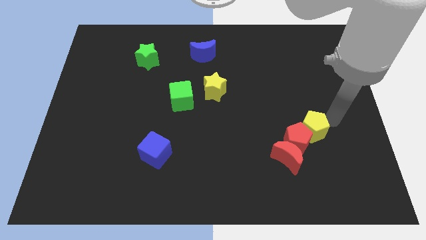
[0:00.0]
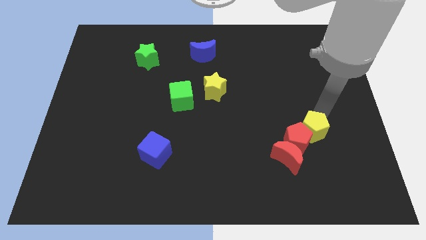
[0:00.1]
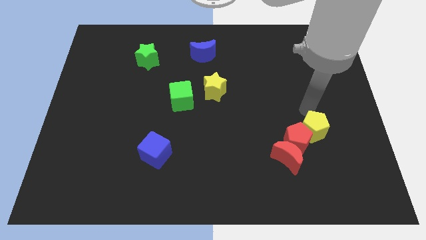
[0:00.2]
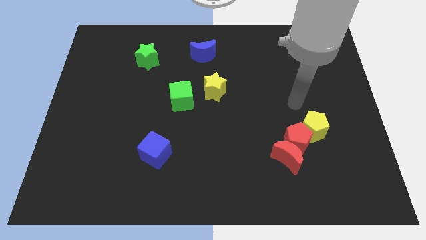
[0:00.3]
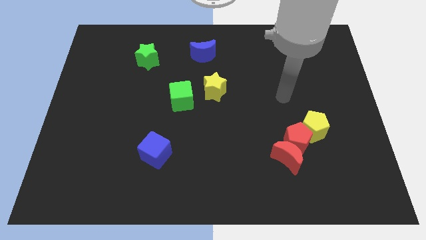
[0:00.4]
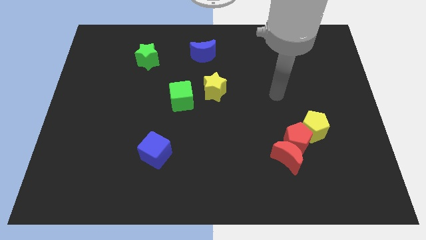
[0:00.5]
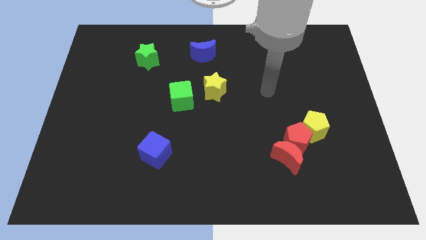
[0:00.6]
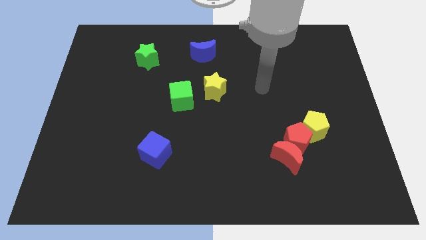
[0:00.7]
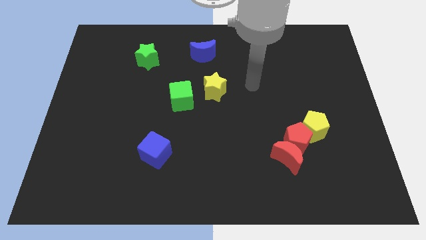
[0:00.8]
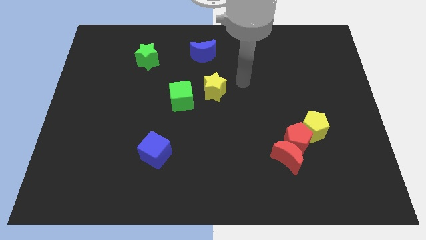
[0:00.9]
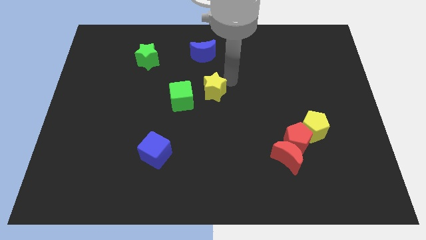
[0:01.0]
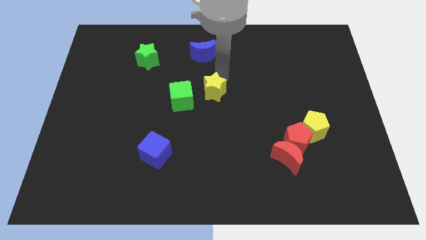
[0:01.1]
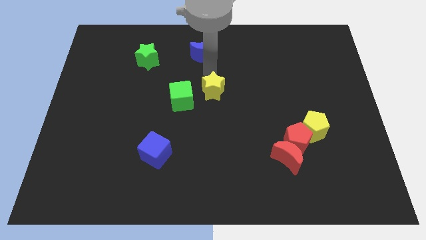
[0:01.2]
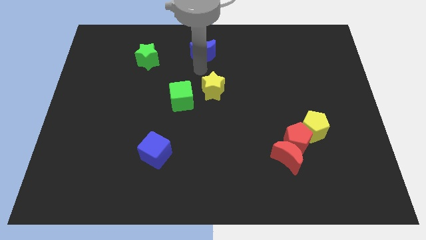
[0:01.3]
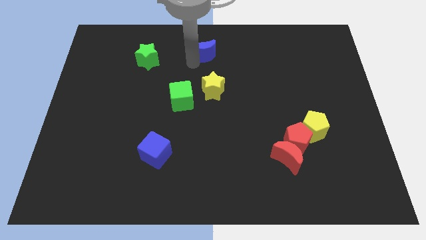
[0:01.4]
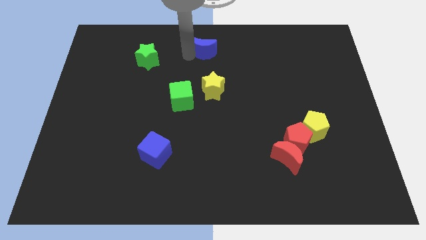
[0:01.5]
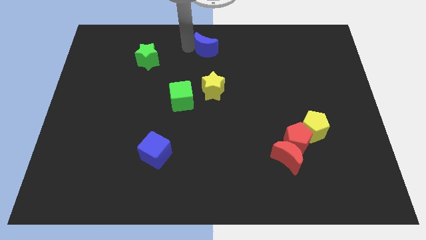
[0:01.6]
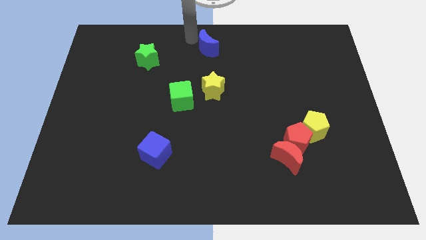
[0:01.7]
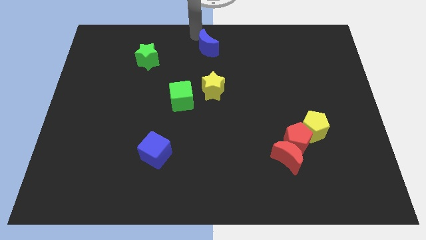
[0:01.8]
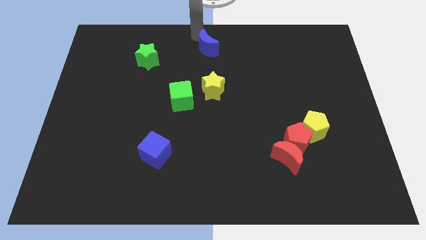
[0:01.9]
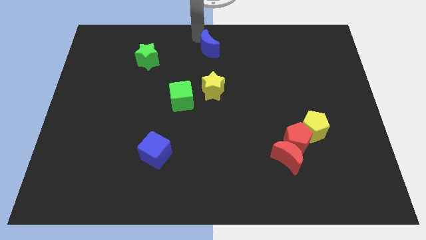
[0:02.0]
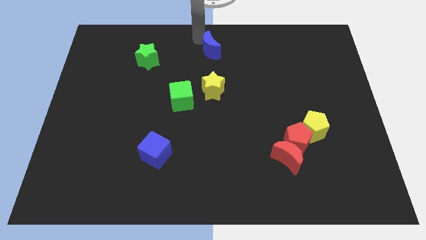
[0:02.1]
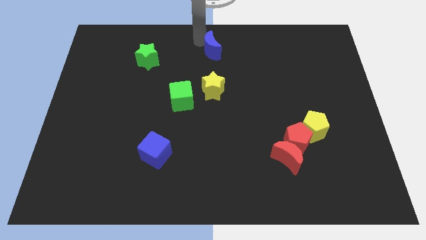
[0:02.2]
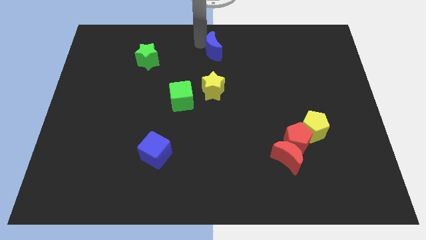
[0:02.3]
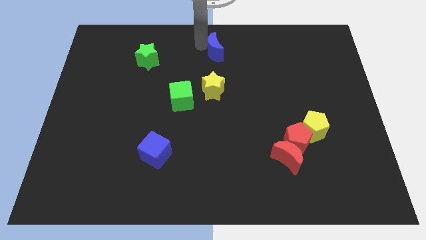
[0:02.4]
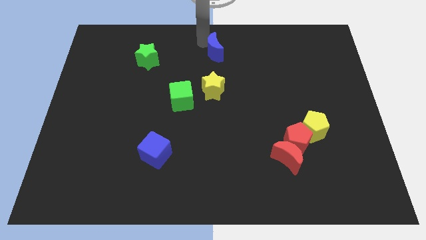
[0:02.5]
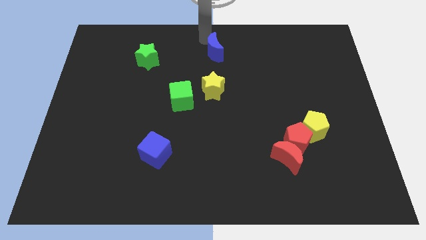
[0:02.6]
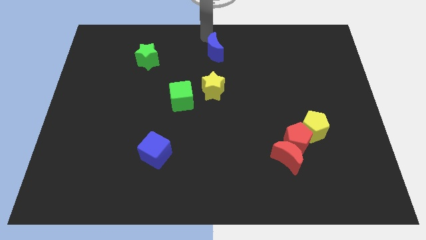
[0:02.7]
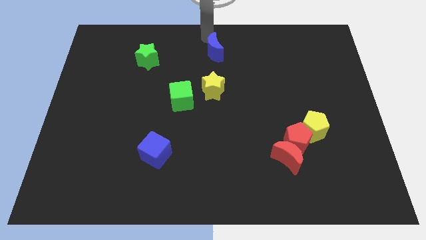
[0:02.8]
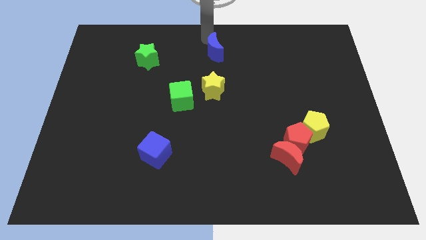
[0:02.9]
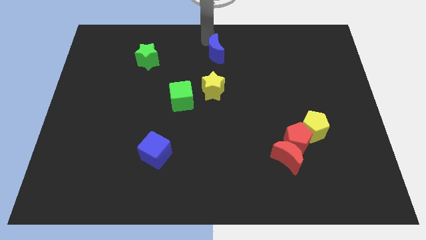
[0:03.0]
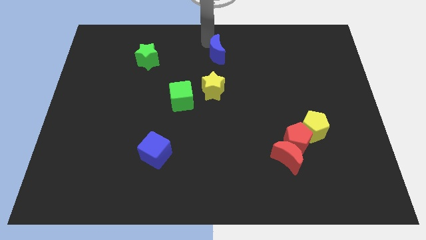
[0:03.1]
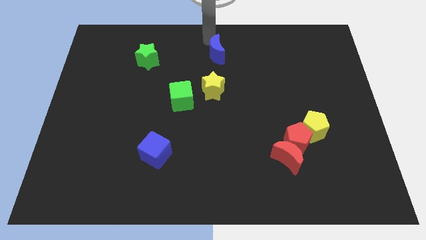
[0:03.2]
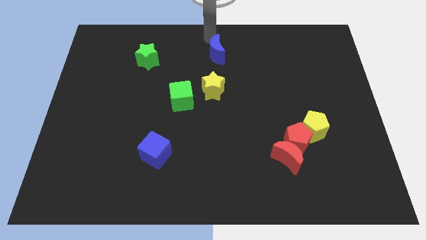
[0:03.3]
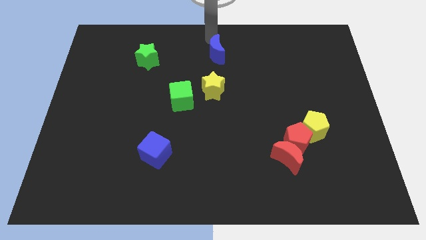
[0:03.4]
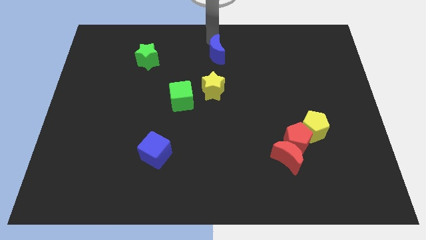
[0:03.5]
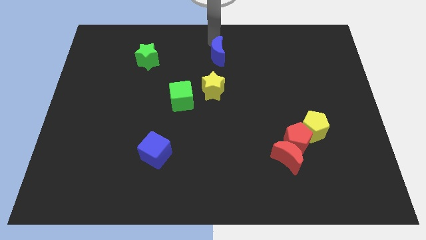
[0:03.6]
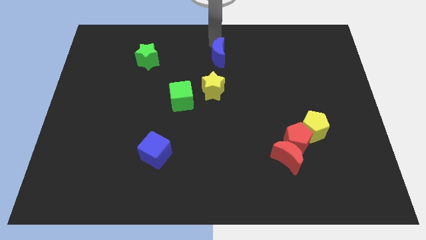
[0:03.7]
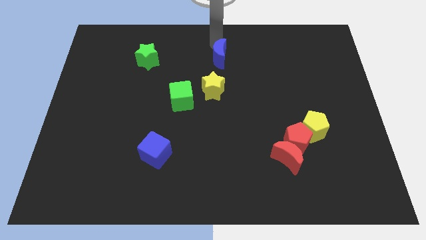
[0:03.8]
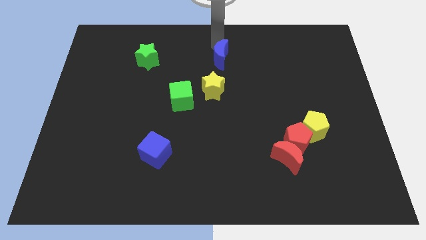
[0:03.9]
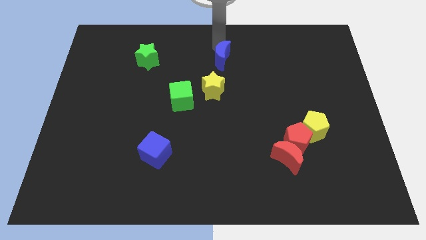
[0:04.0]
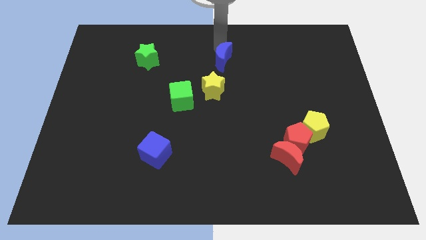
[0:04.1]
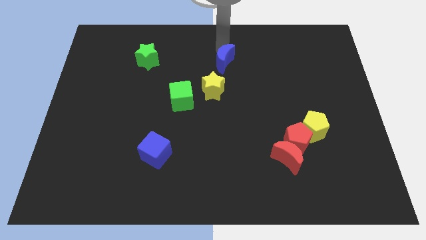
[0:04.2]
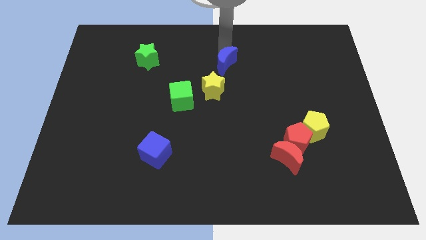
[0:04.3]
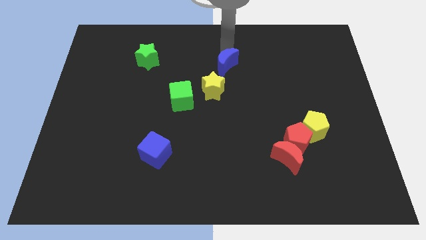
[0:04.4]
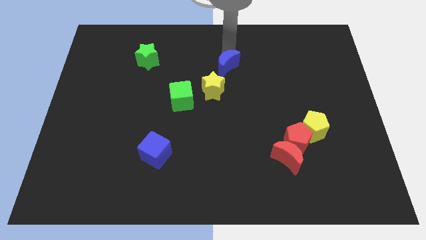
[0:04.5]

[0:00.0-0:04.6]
move the blue moon a little bit down and right diagonally

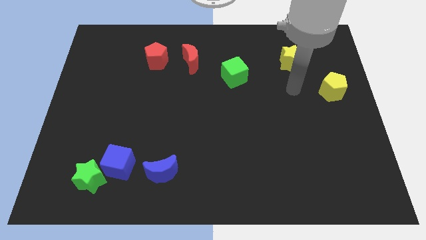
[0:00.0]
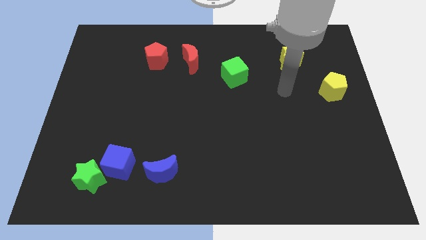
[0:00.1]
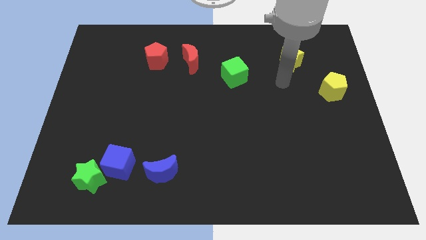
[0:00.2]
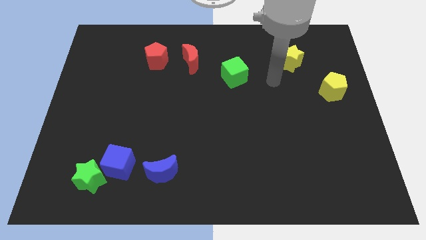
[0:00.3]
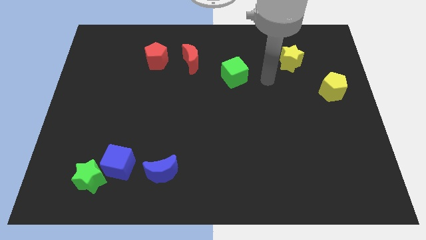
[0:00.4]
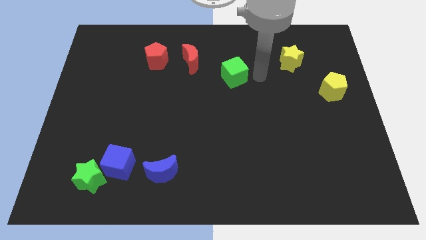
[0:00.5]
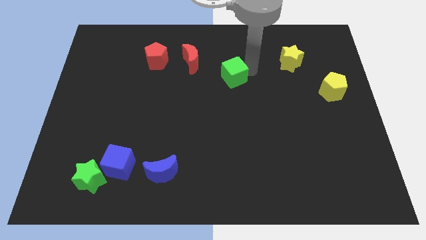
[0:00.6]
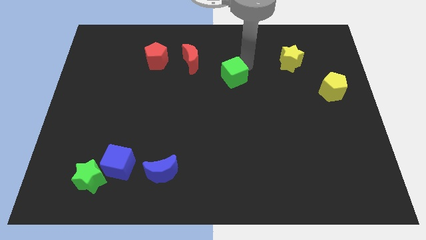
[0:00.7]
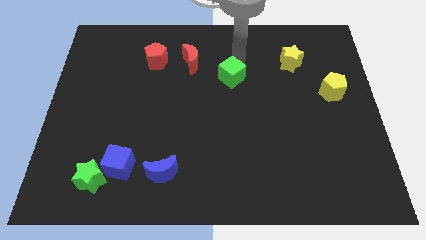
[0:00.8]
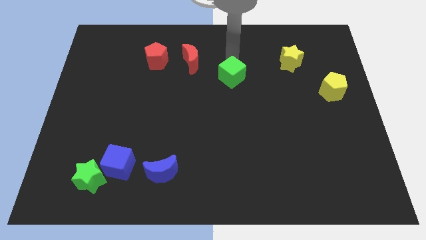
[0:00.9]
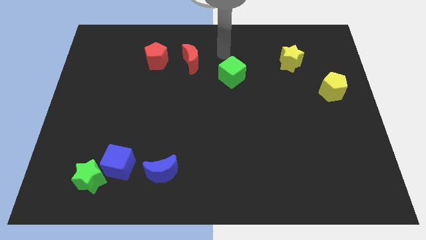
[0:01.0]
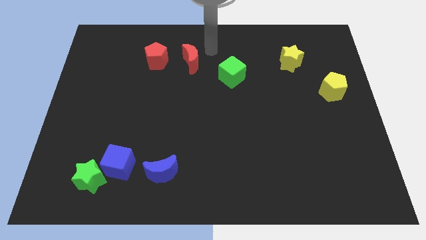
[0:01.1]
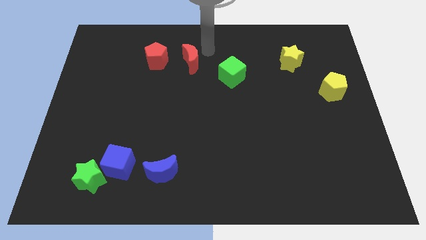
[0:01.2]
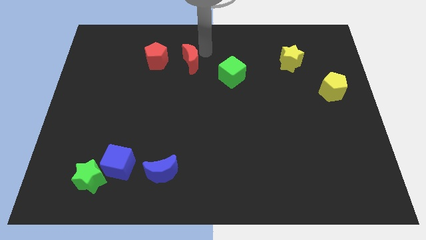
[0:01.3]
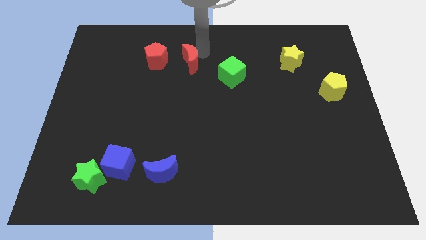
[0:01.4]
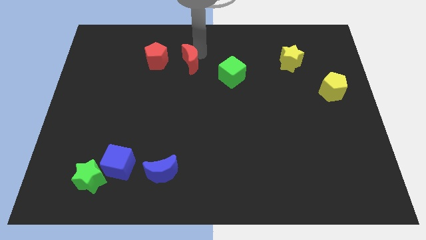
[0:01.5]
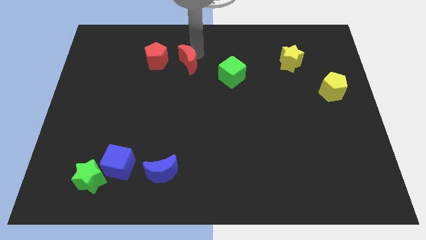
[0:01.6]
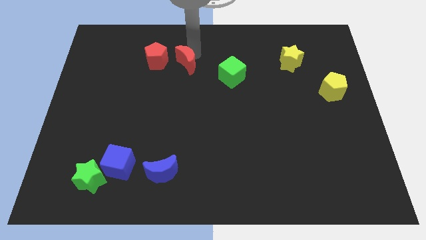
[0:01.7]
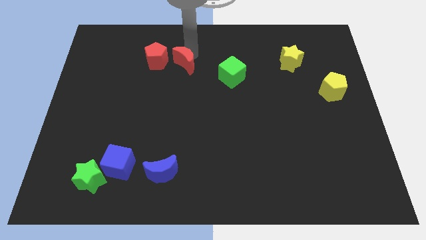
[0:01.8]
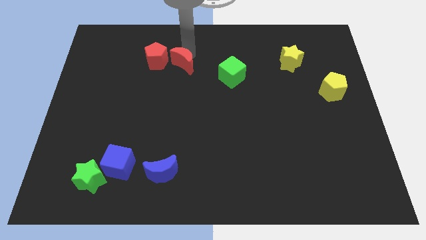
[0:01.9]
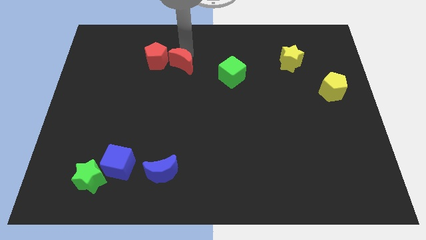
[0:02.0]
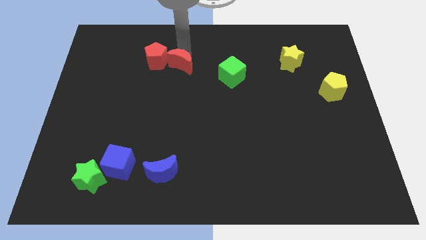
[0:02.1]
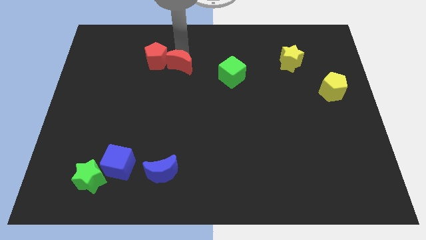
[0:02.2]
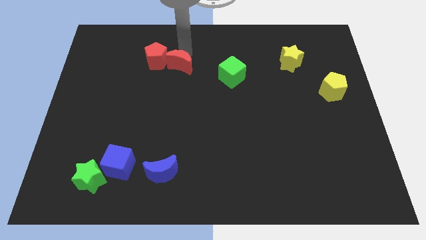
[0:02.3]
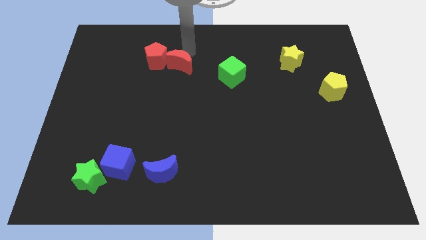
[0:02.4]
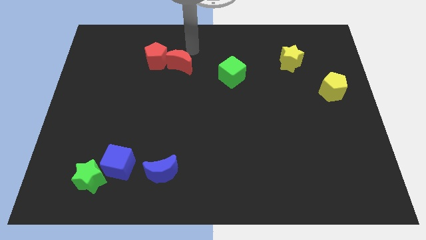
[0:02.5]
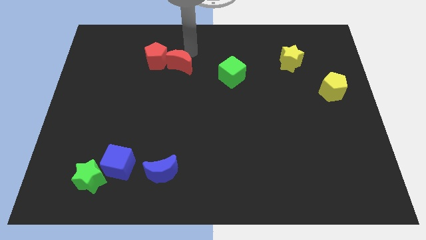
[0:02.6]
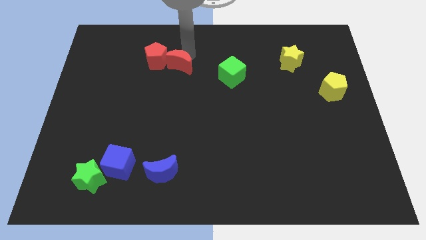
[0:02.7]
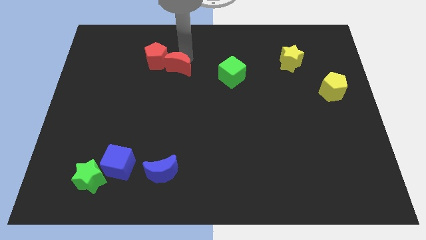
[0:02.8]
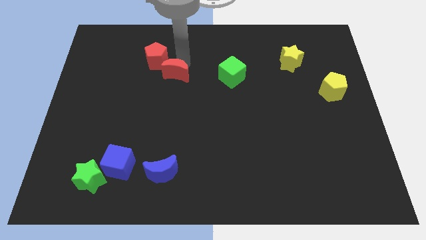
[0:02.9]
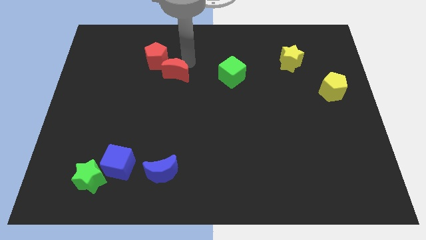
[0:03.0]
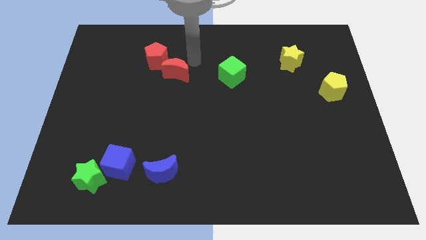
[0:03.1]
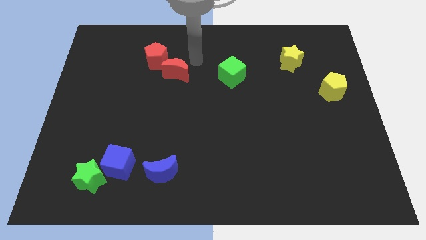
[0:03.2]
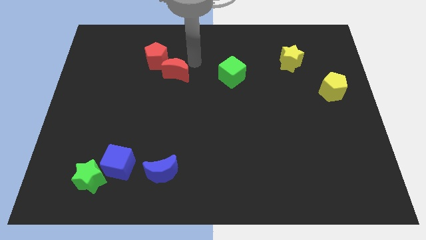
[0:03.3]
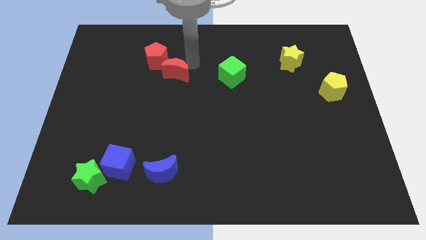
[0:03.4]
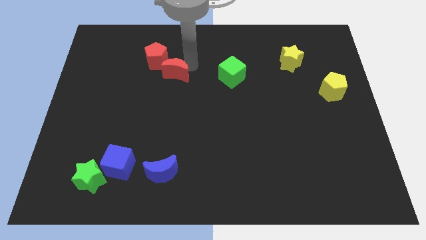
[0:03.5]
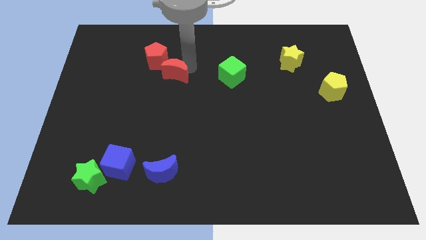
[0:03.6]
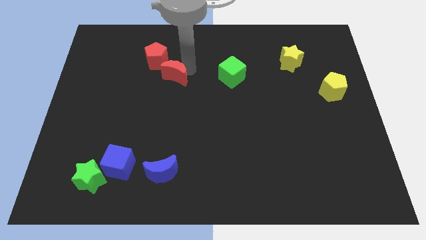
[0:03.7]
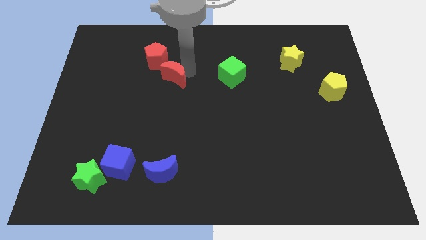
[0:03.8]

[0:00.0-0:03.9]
slightly slide the red moon down and left diagonally
